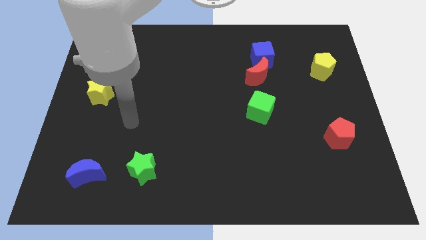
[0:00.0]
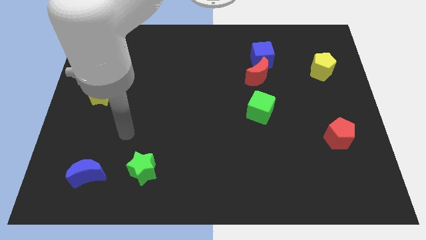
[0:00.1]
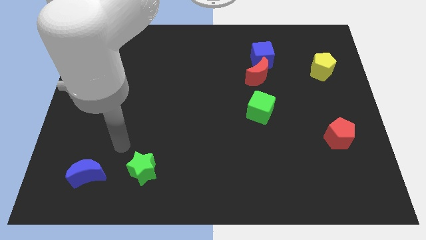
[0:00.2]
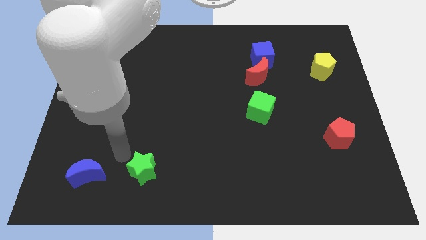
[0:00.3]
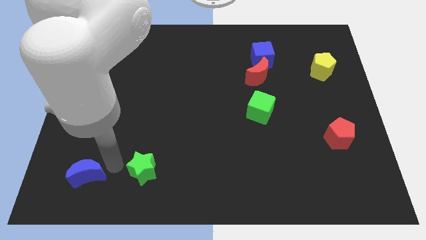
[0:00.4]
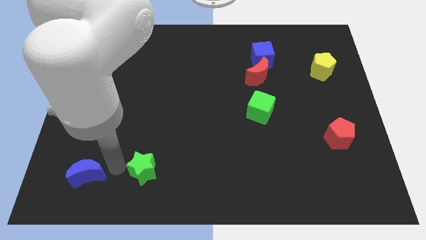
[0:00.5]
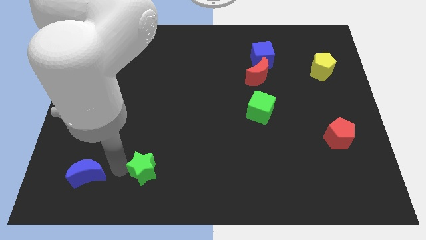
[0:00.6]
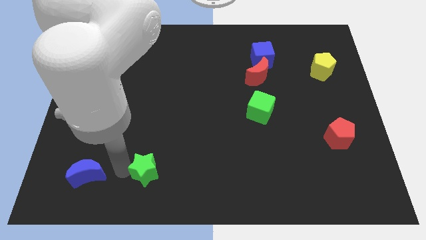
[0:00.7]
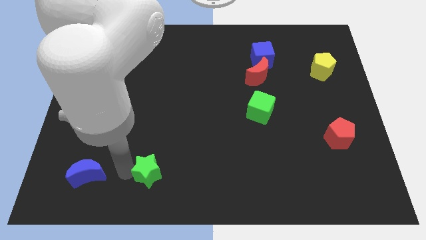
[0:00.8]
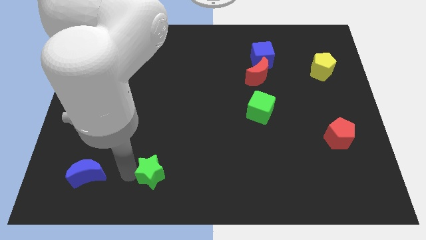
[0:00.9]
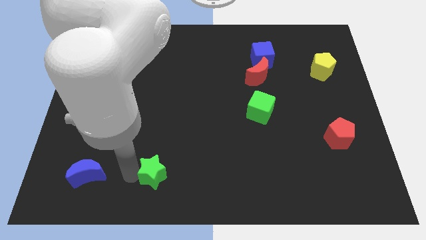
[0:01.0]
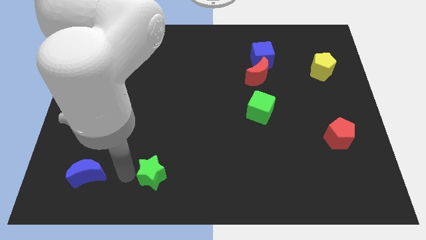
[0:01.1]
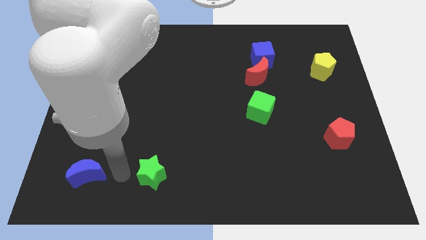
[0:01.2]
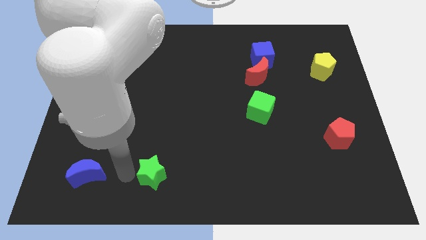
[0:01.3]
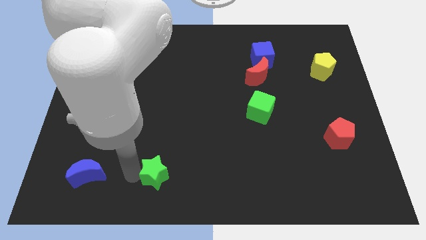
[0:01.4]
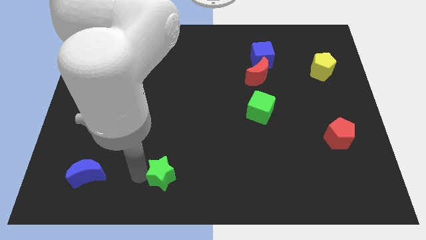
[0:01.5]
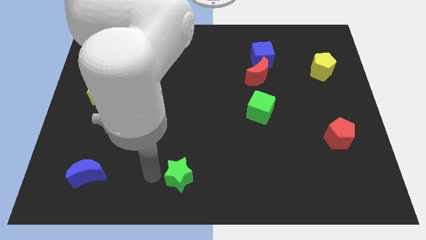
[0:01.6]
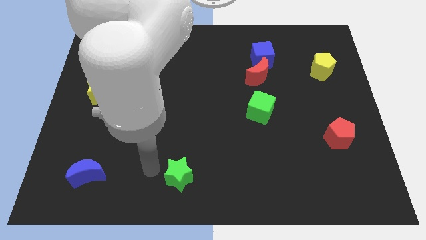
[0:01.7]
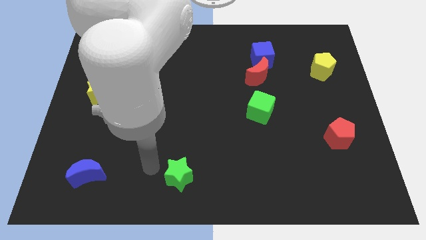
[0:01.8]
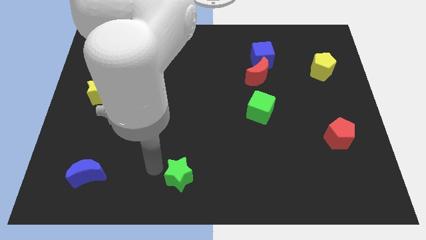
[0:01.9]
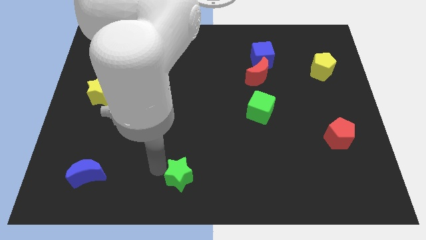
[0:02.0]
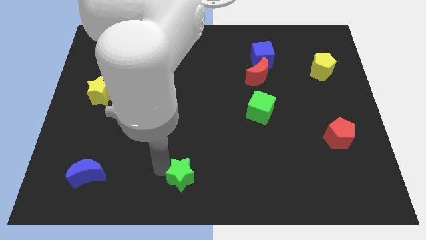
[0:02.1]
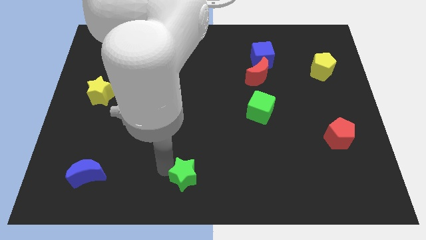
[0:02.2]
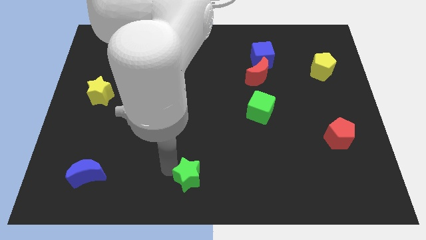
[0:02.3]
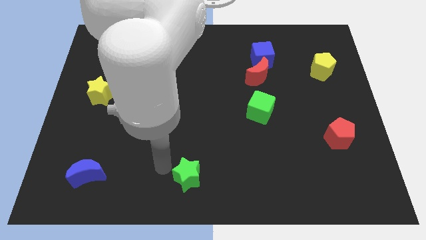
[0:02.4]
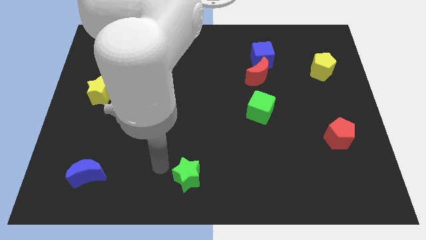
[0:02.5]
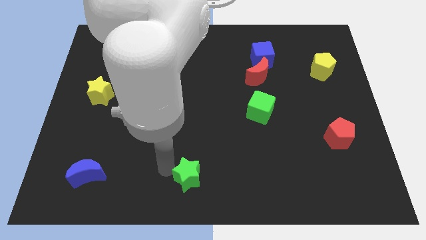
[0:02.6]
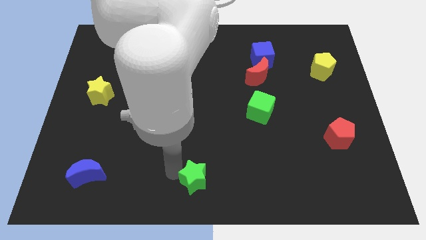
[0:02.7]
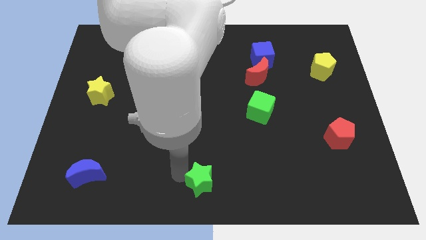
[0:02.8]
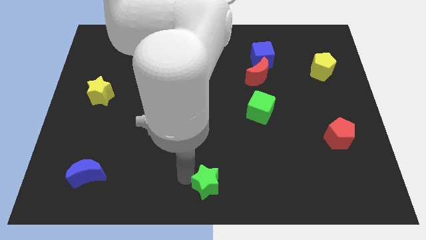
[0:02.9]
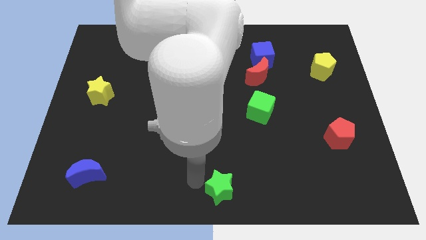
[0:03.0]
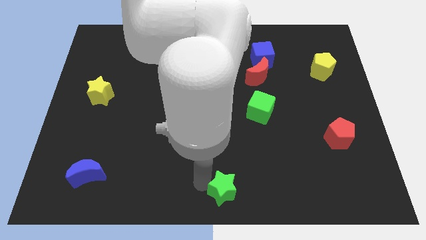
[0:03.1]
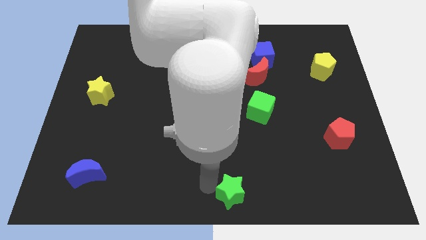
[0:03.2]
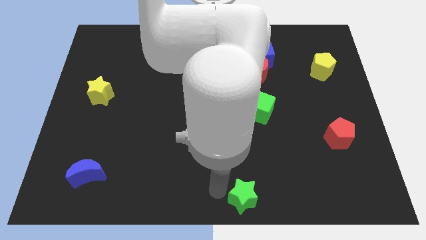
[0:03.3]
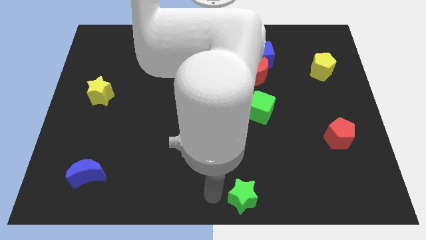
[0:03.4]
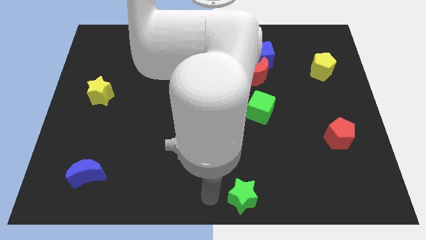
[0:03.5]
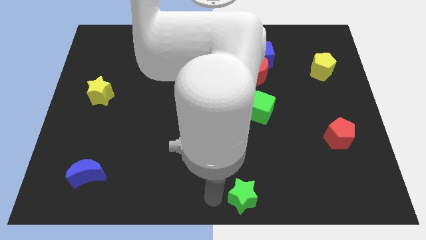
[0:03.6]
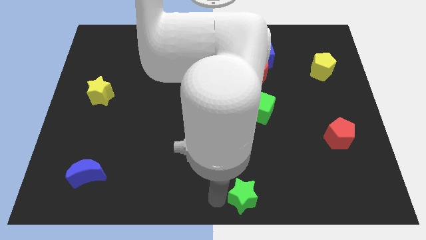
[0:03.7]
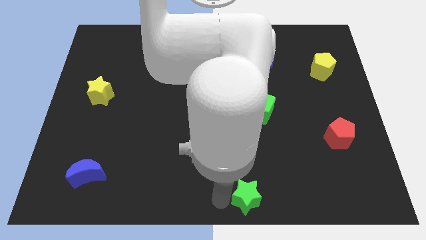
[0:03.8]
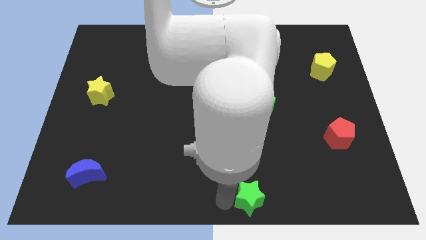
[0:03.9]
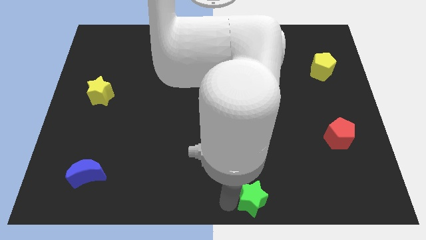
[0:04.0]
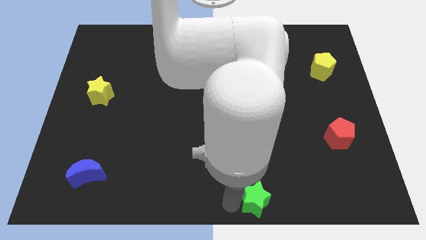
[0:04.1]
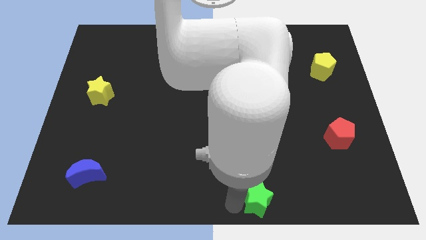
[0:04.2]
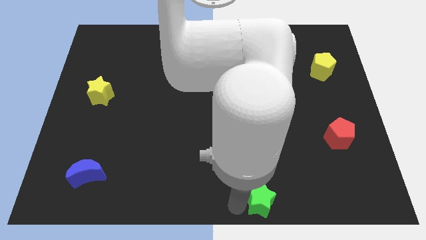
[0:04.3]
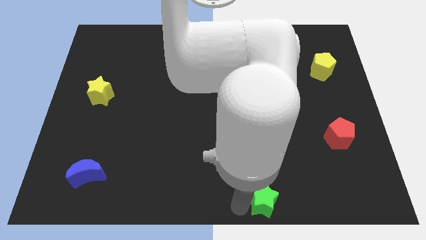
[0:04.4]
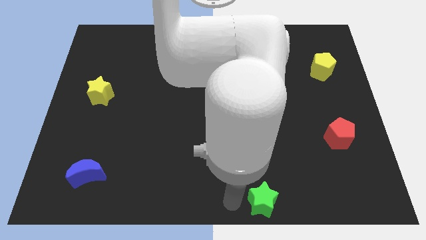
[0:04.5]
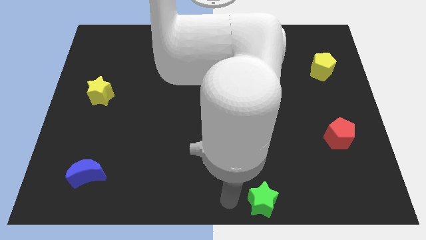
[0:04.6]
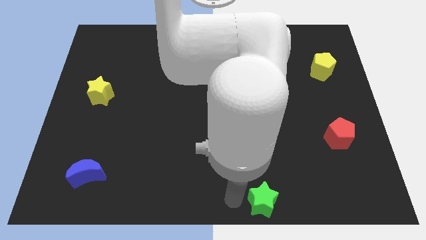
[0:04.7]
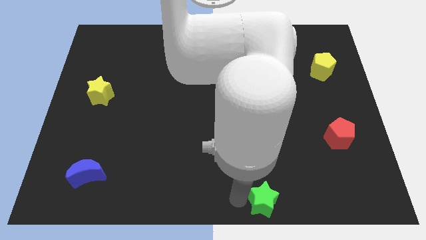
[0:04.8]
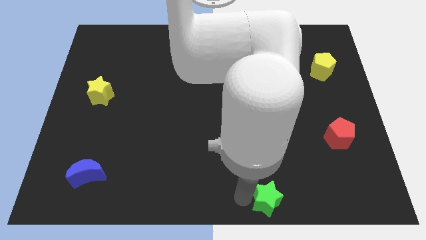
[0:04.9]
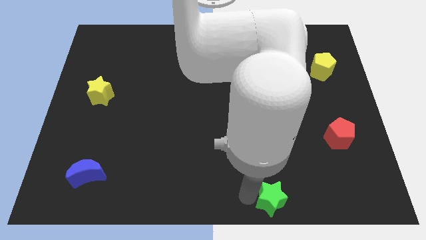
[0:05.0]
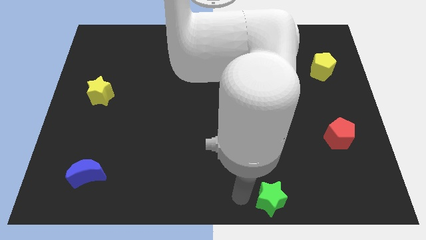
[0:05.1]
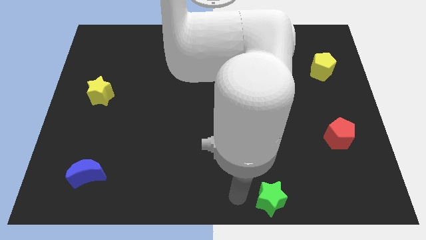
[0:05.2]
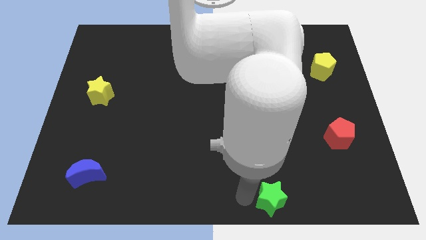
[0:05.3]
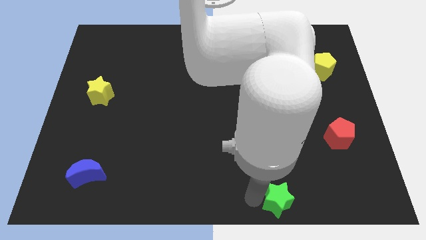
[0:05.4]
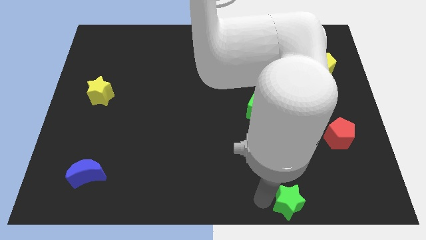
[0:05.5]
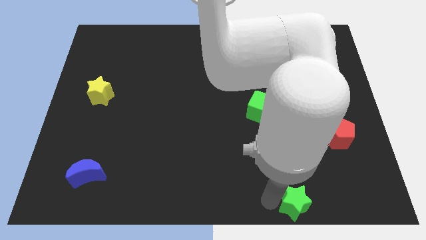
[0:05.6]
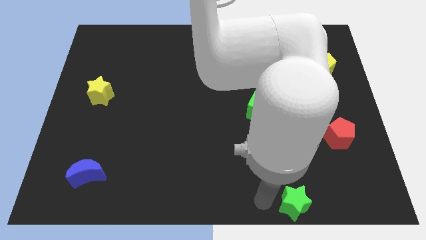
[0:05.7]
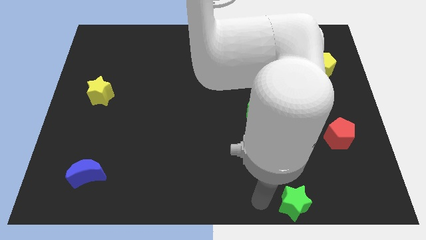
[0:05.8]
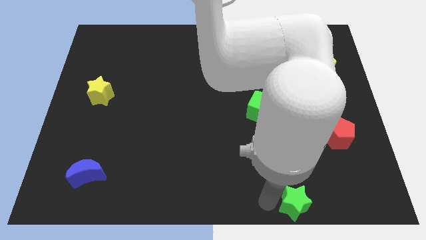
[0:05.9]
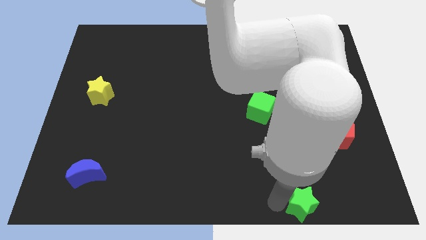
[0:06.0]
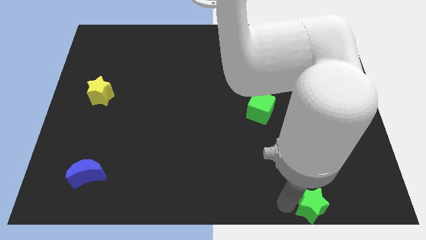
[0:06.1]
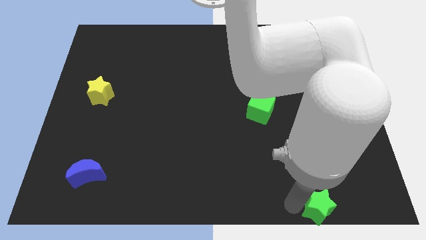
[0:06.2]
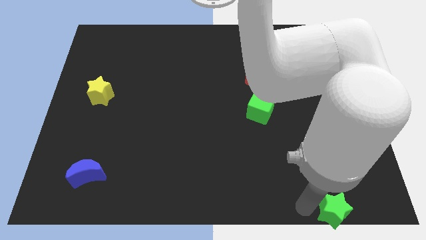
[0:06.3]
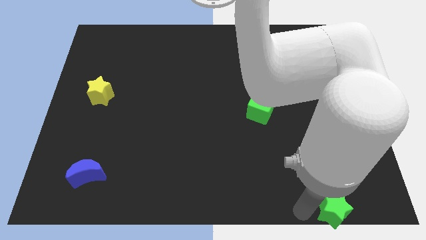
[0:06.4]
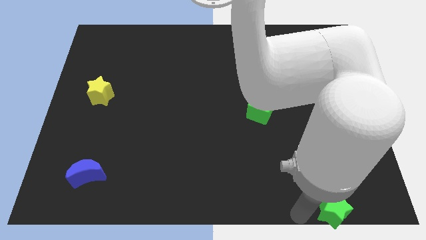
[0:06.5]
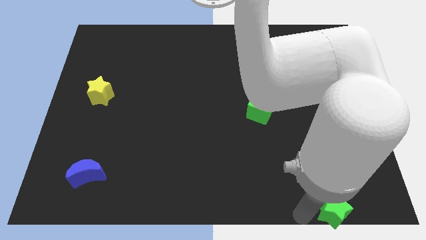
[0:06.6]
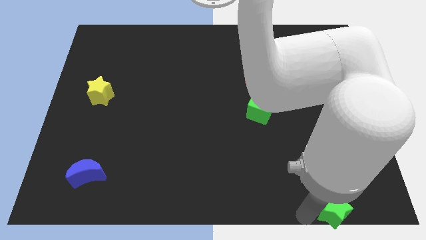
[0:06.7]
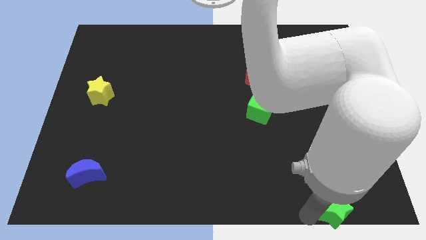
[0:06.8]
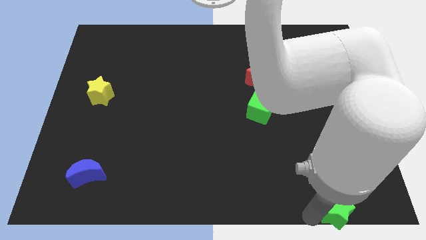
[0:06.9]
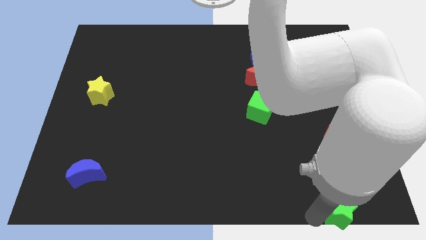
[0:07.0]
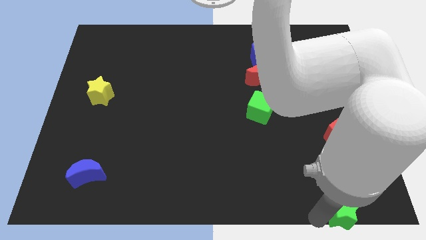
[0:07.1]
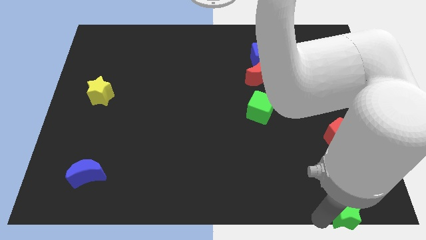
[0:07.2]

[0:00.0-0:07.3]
move the green star to the lower right corner
